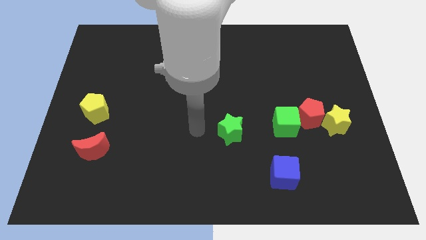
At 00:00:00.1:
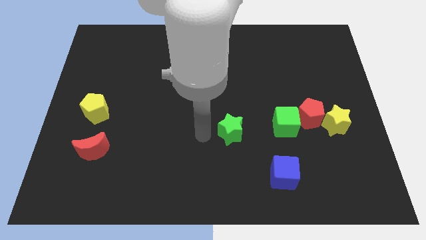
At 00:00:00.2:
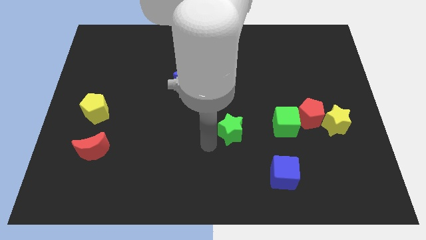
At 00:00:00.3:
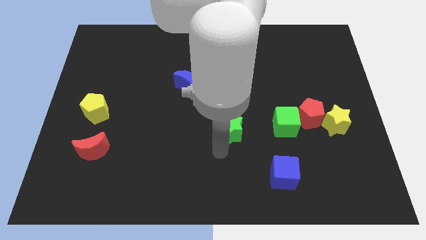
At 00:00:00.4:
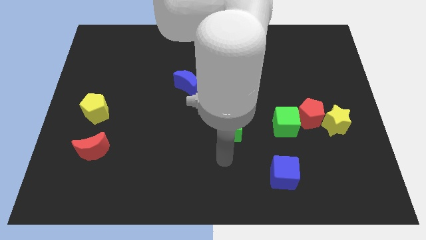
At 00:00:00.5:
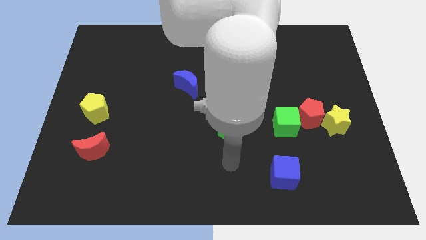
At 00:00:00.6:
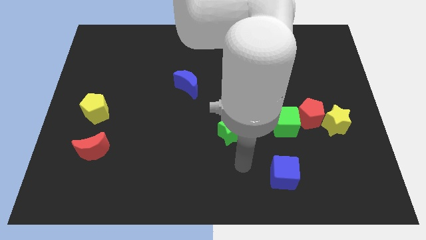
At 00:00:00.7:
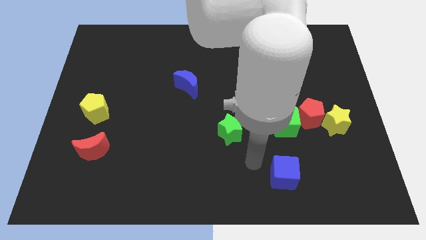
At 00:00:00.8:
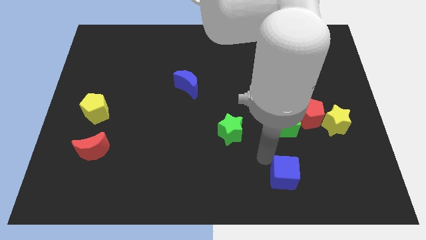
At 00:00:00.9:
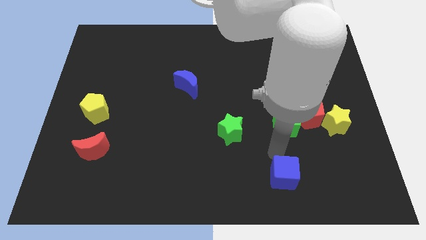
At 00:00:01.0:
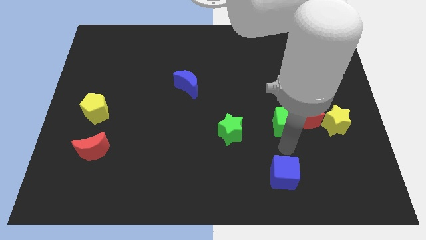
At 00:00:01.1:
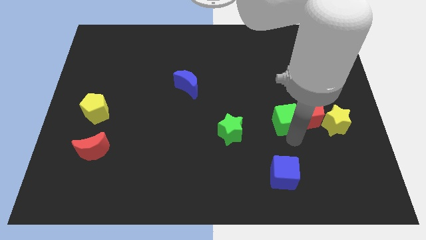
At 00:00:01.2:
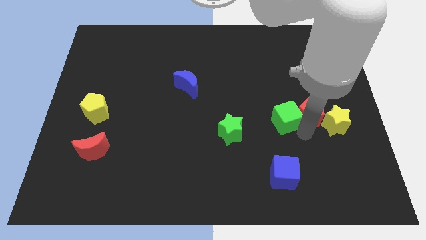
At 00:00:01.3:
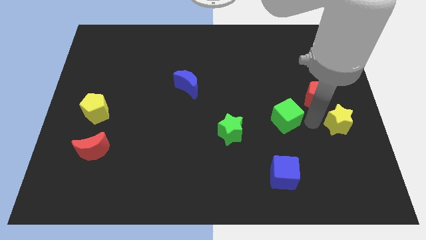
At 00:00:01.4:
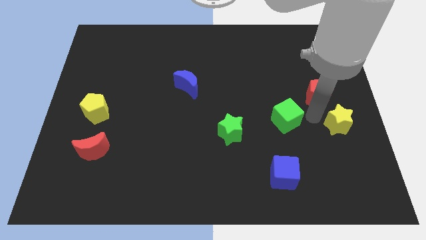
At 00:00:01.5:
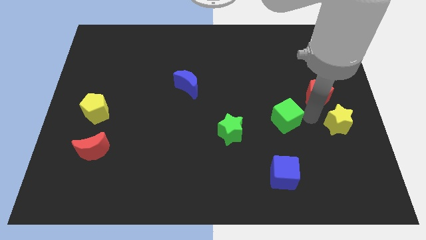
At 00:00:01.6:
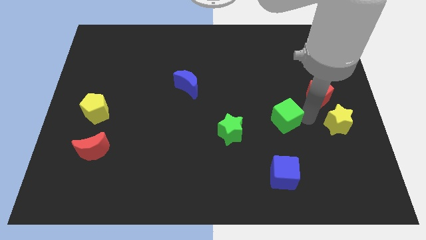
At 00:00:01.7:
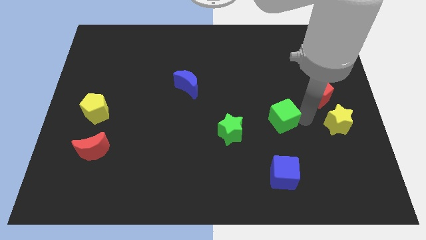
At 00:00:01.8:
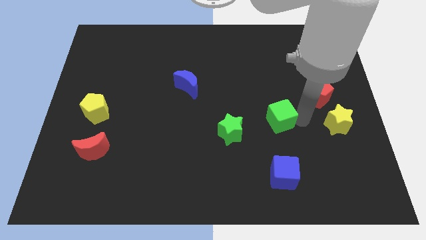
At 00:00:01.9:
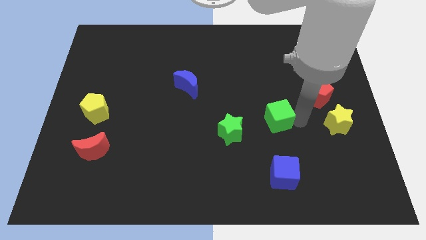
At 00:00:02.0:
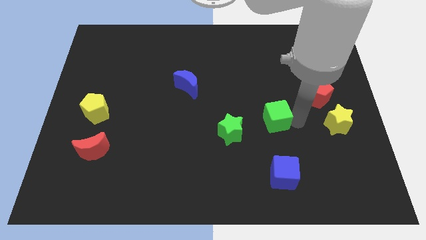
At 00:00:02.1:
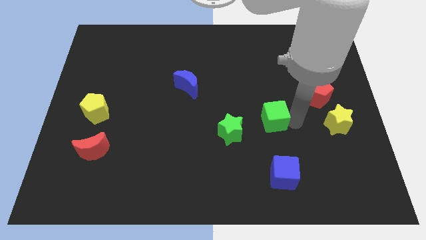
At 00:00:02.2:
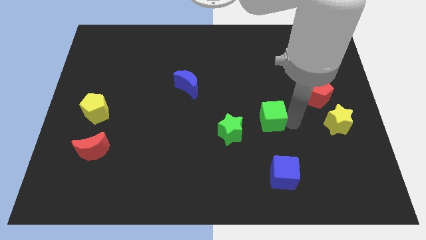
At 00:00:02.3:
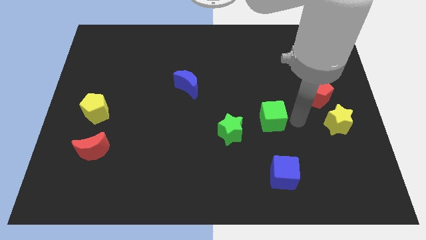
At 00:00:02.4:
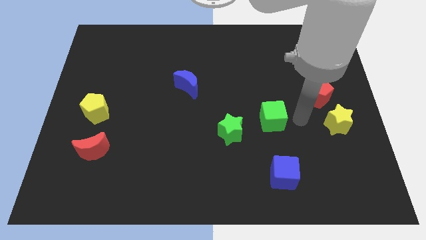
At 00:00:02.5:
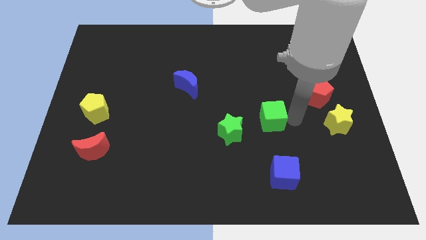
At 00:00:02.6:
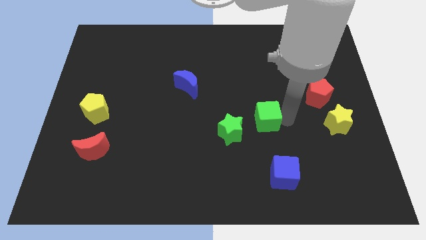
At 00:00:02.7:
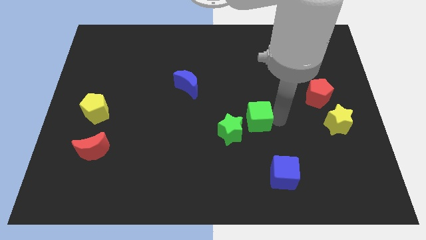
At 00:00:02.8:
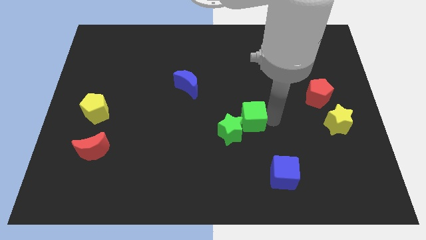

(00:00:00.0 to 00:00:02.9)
move the green cube a little bit left

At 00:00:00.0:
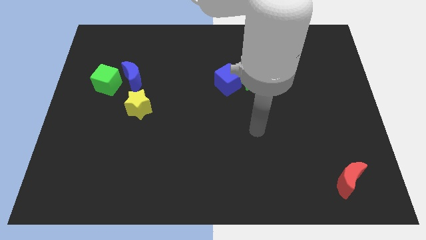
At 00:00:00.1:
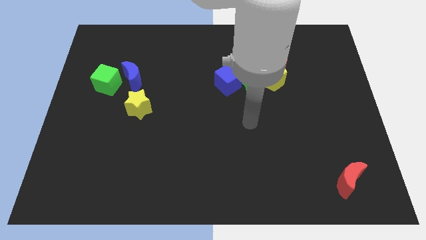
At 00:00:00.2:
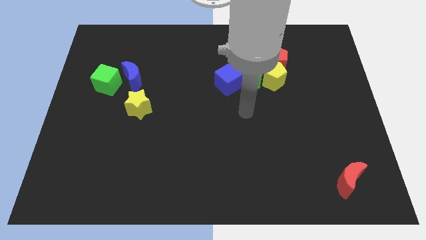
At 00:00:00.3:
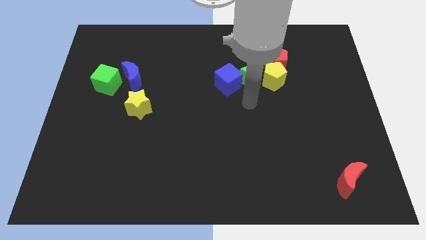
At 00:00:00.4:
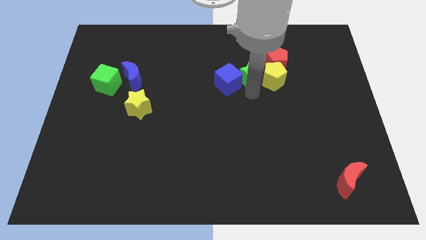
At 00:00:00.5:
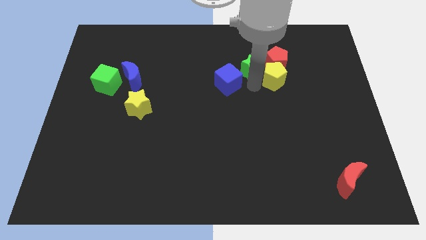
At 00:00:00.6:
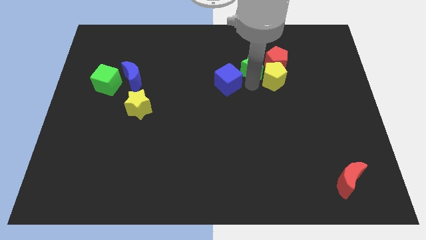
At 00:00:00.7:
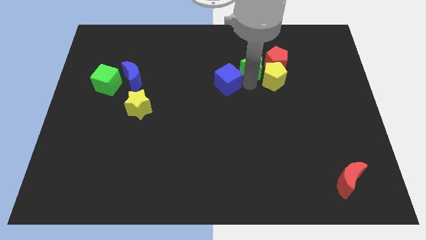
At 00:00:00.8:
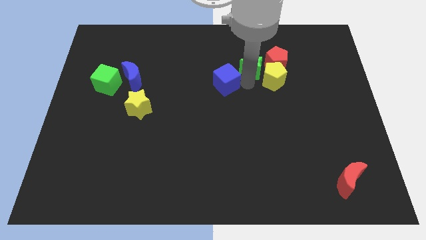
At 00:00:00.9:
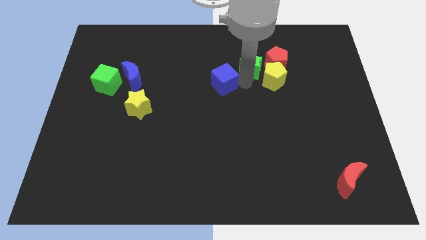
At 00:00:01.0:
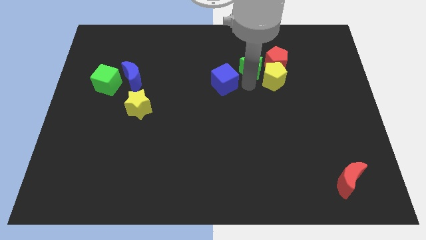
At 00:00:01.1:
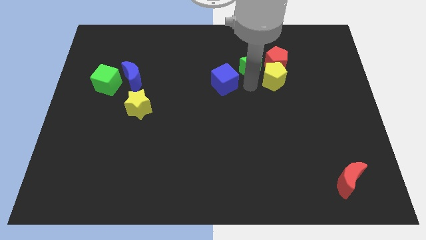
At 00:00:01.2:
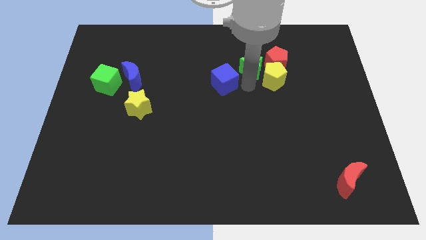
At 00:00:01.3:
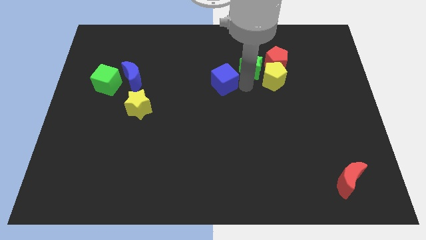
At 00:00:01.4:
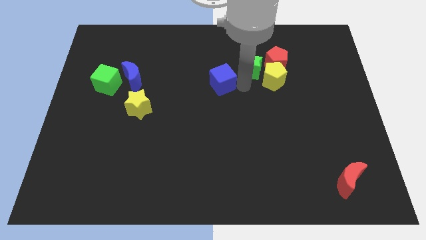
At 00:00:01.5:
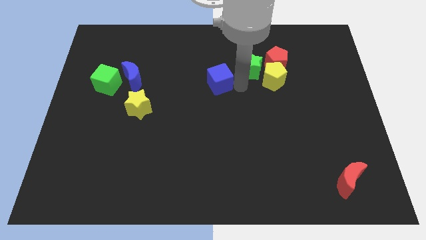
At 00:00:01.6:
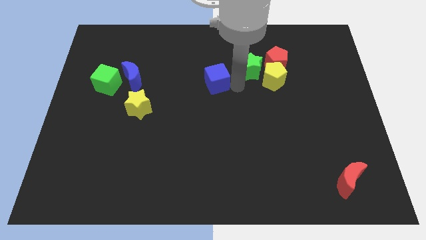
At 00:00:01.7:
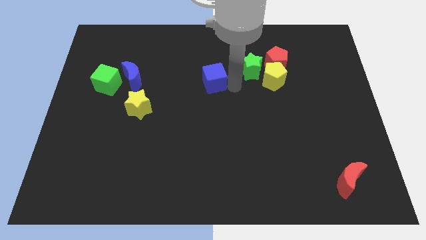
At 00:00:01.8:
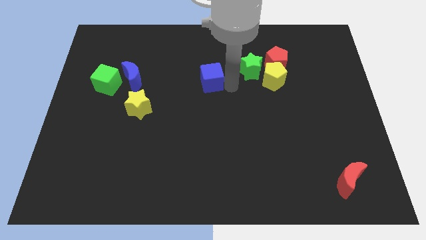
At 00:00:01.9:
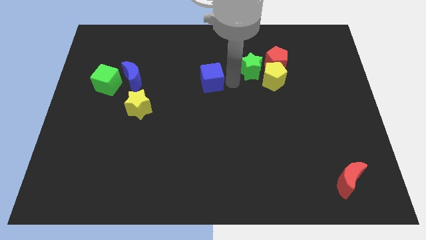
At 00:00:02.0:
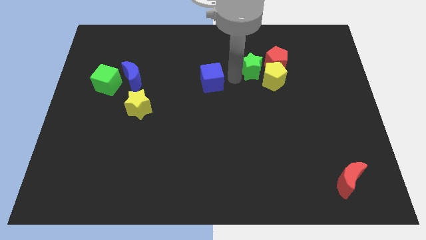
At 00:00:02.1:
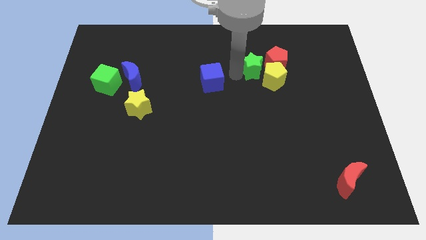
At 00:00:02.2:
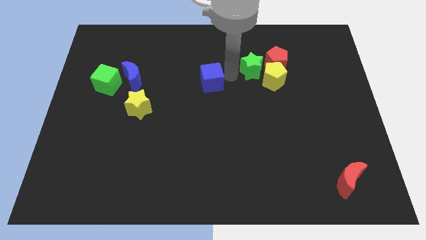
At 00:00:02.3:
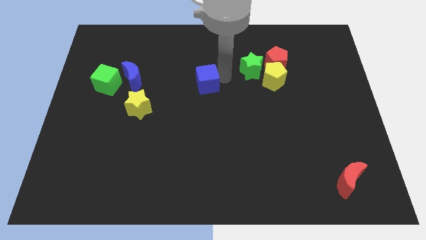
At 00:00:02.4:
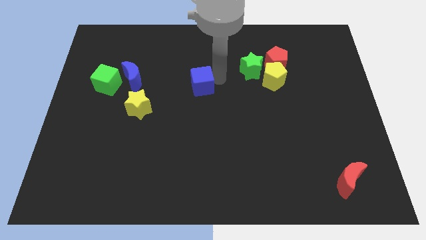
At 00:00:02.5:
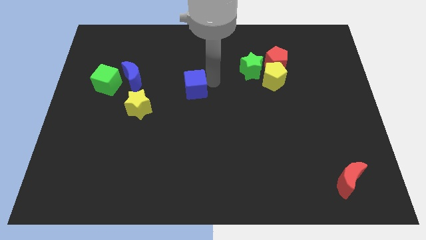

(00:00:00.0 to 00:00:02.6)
slightly slide the blue cube to the left

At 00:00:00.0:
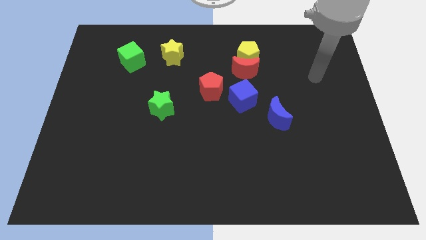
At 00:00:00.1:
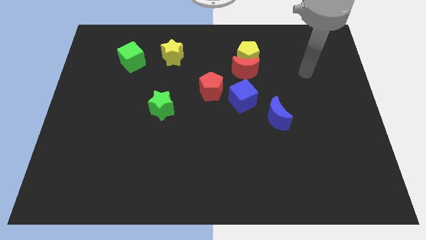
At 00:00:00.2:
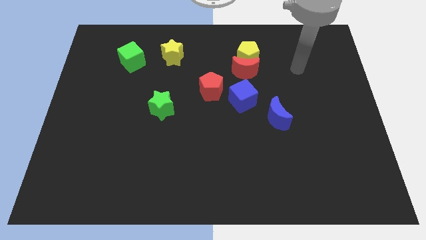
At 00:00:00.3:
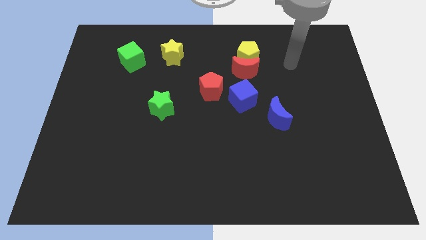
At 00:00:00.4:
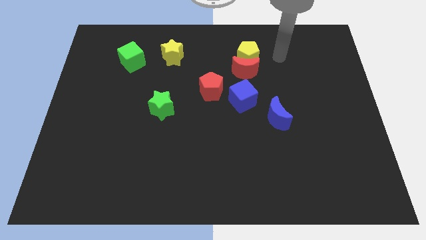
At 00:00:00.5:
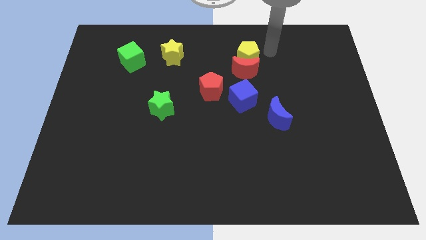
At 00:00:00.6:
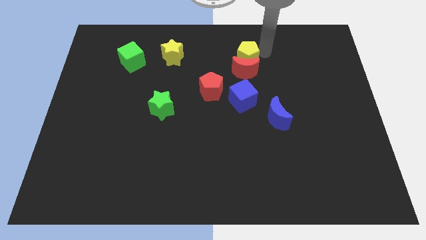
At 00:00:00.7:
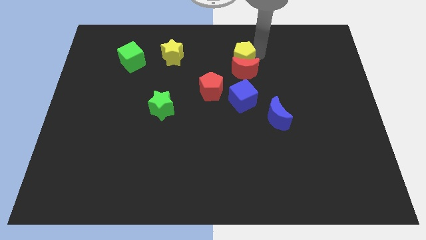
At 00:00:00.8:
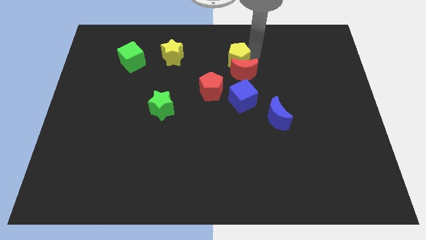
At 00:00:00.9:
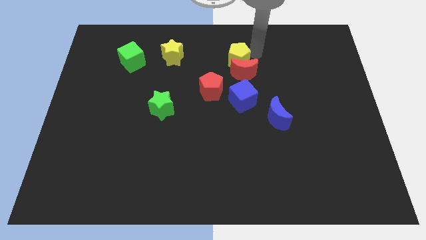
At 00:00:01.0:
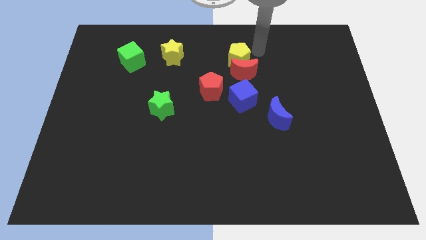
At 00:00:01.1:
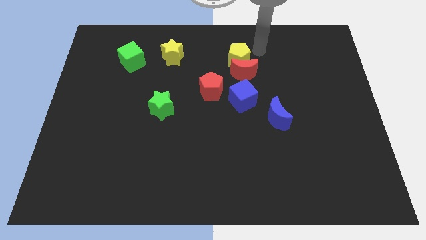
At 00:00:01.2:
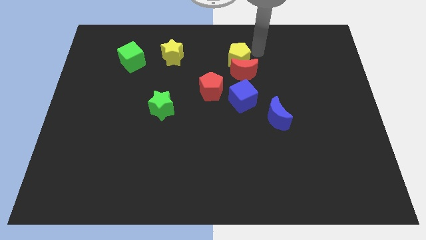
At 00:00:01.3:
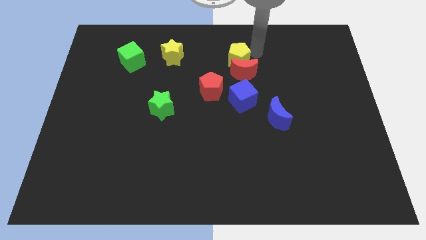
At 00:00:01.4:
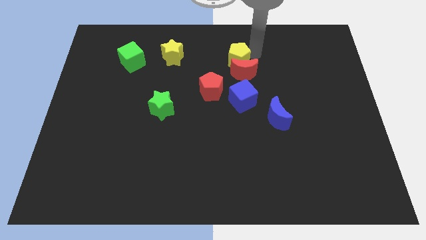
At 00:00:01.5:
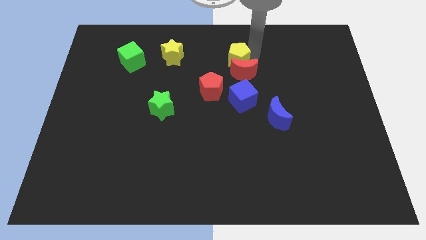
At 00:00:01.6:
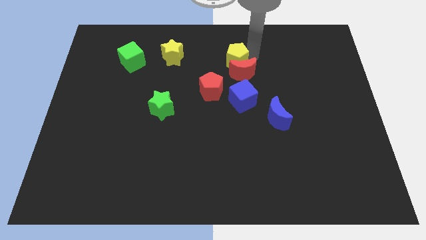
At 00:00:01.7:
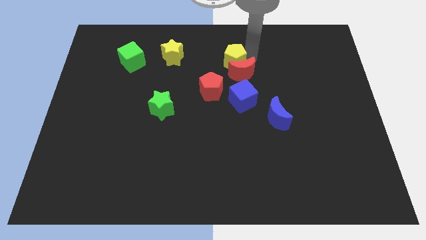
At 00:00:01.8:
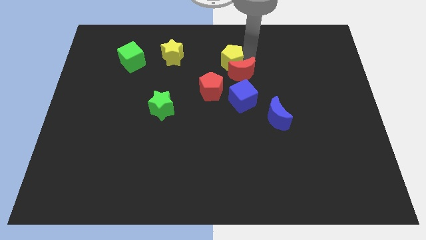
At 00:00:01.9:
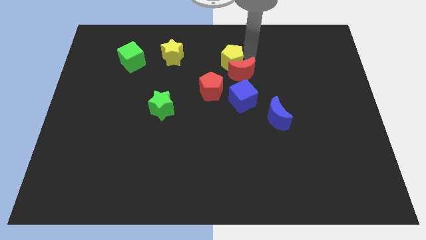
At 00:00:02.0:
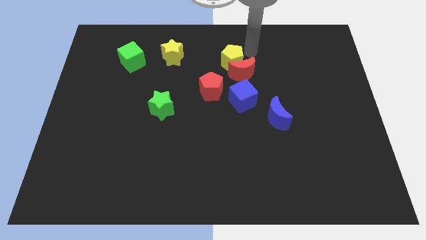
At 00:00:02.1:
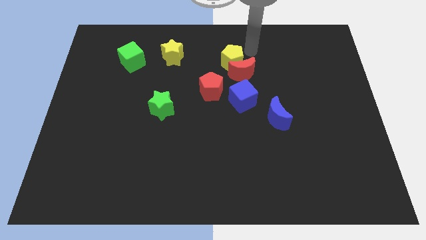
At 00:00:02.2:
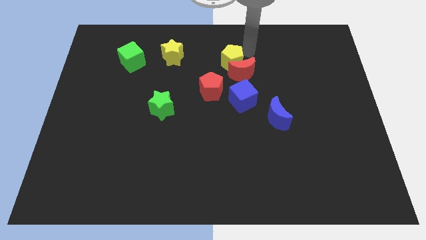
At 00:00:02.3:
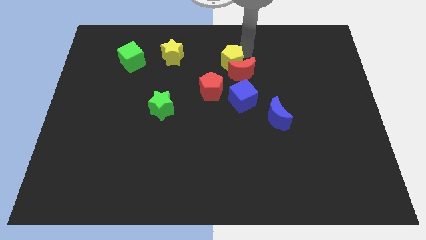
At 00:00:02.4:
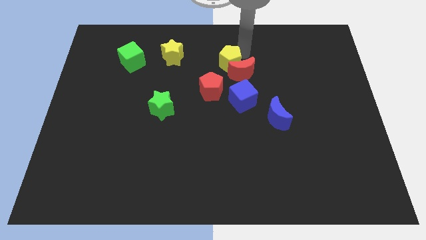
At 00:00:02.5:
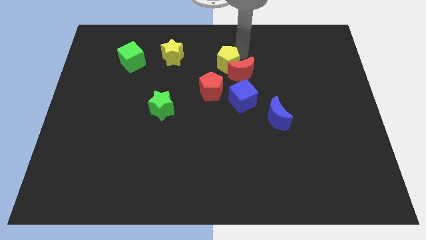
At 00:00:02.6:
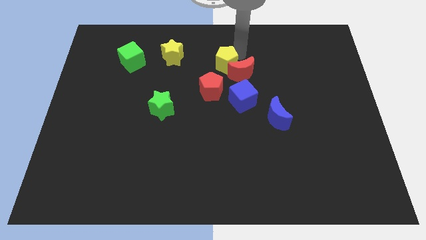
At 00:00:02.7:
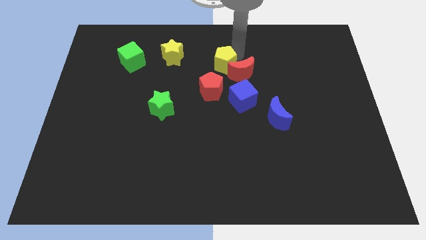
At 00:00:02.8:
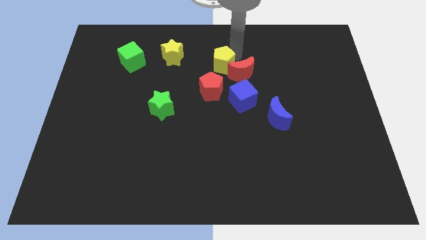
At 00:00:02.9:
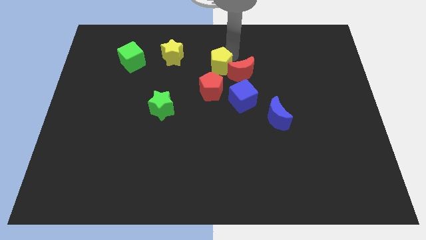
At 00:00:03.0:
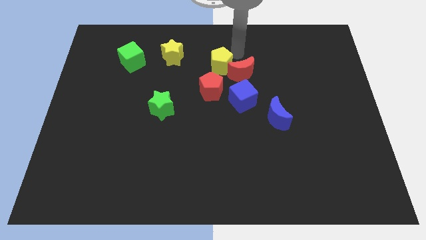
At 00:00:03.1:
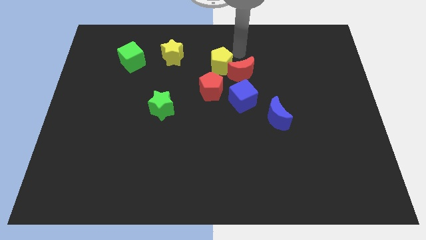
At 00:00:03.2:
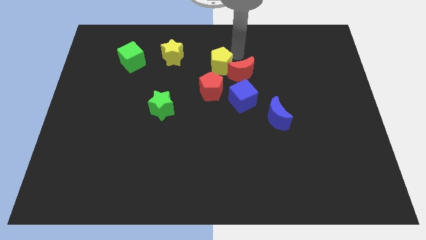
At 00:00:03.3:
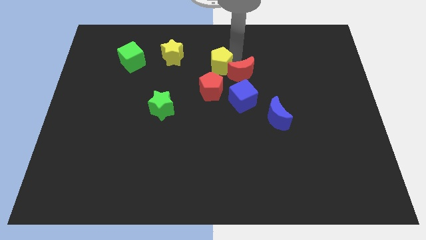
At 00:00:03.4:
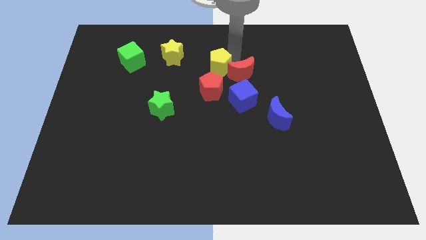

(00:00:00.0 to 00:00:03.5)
slide the yellow pentagon slightly diagonally downwards and left
